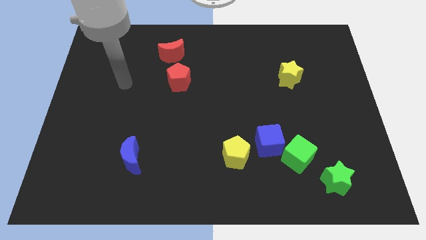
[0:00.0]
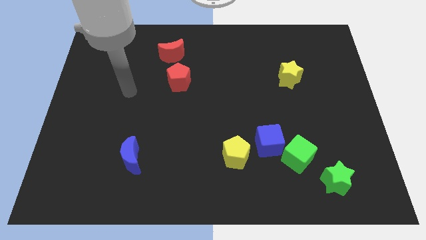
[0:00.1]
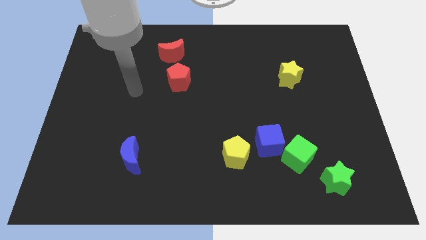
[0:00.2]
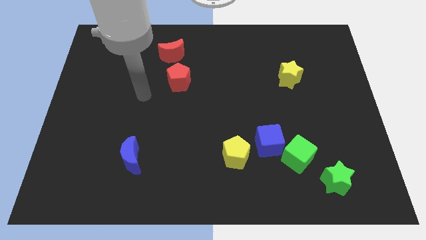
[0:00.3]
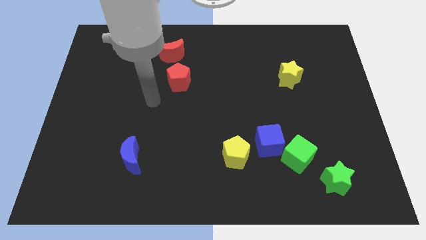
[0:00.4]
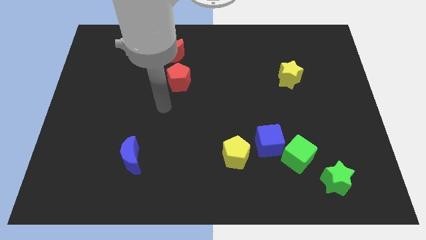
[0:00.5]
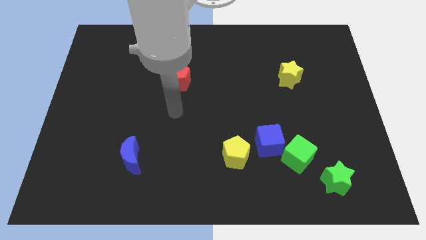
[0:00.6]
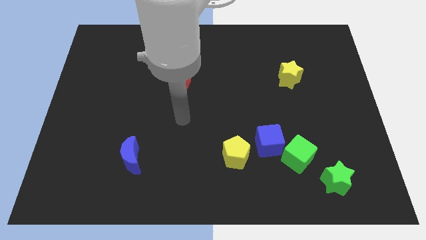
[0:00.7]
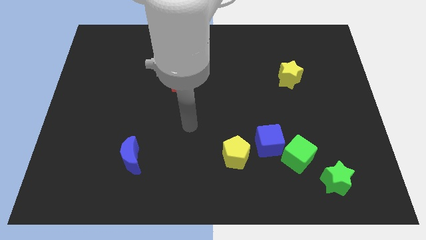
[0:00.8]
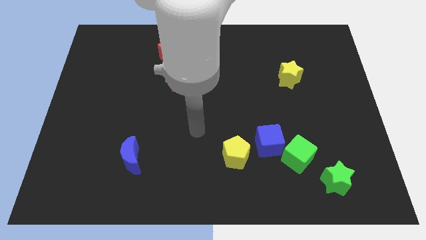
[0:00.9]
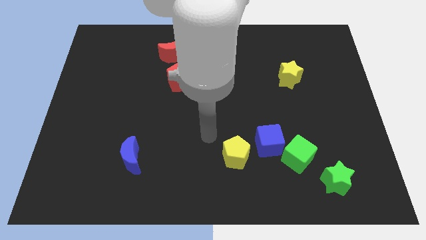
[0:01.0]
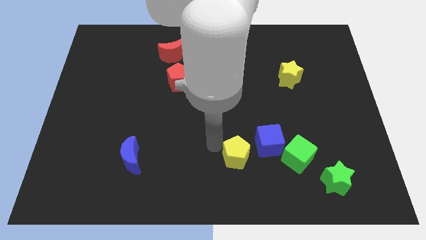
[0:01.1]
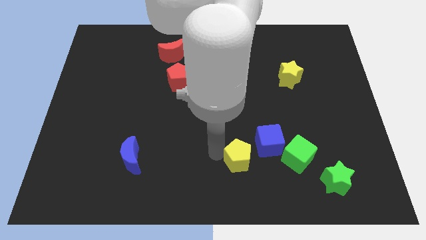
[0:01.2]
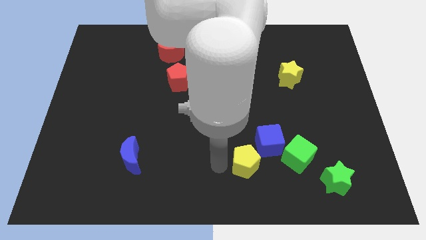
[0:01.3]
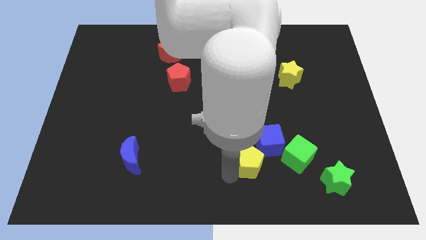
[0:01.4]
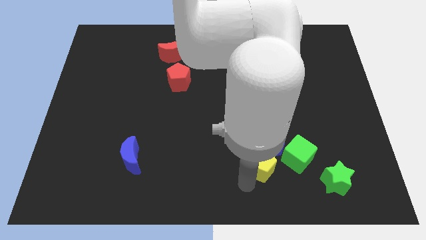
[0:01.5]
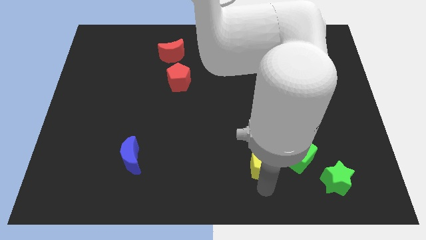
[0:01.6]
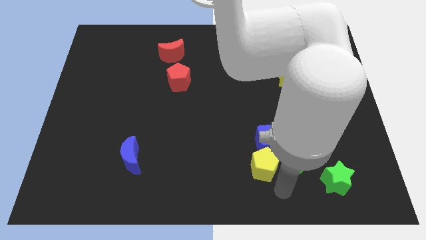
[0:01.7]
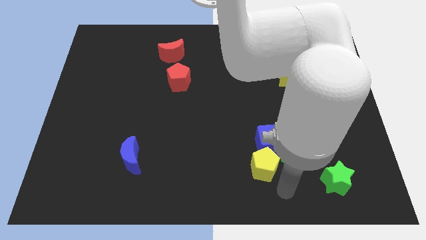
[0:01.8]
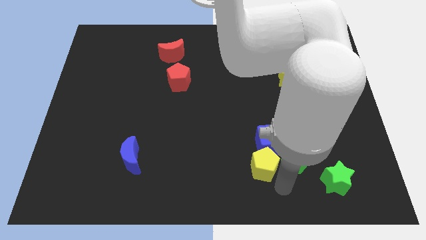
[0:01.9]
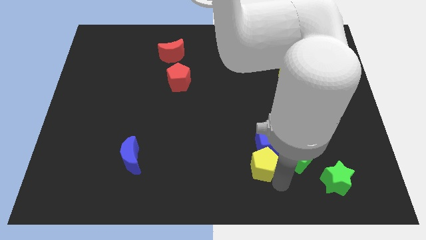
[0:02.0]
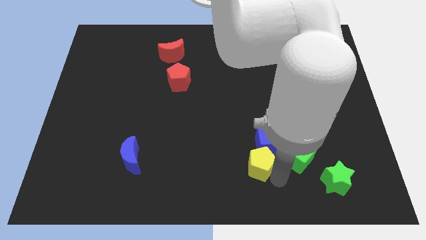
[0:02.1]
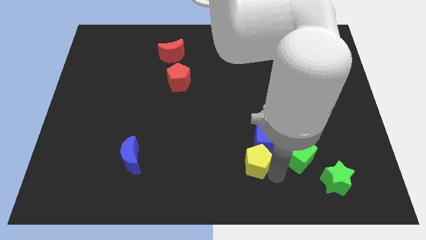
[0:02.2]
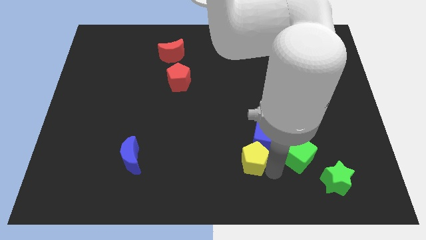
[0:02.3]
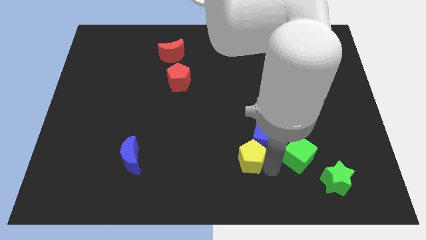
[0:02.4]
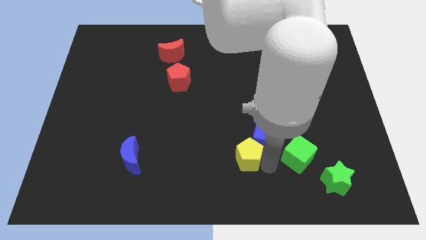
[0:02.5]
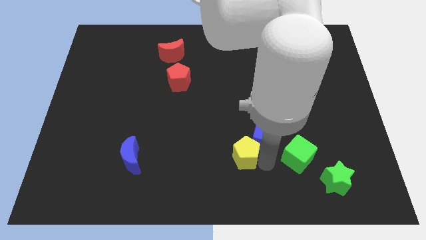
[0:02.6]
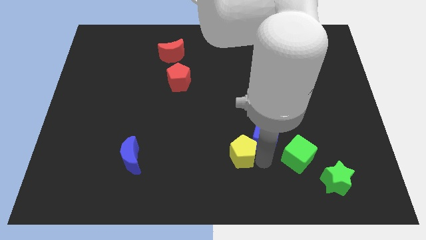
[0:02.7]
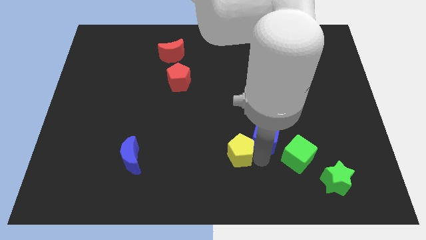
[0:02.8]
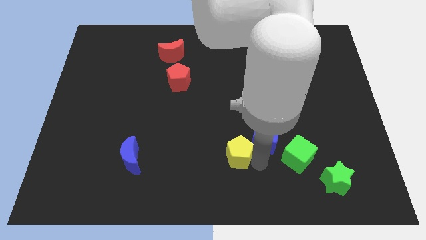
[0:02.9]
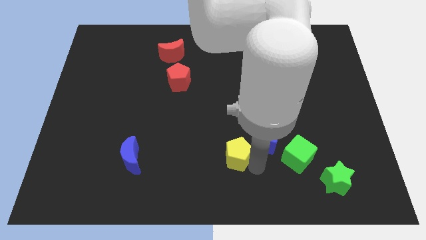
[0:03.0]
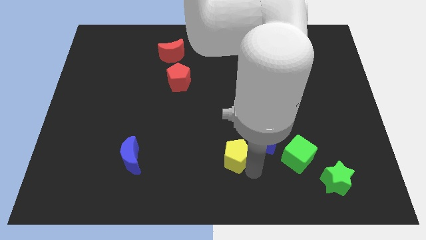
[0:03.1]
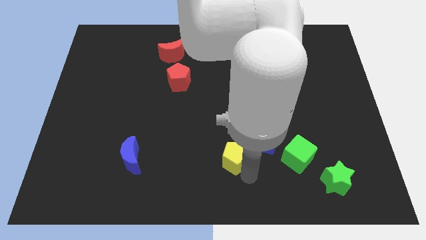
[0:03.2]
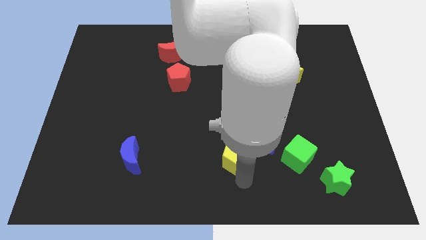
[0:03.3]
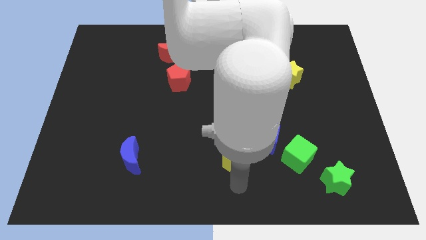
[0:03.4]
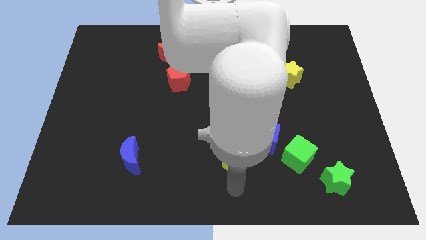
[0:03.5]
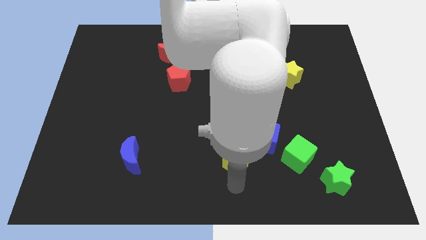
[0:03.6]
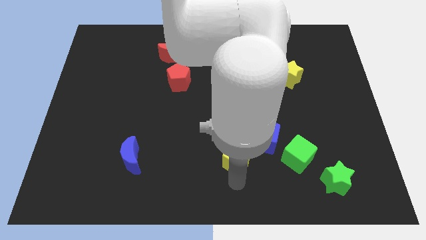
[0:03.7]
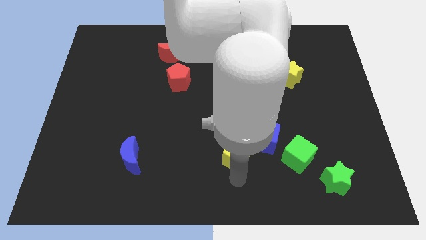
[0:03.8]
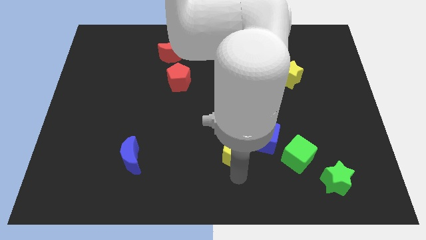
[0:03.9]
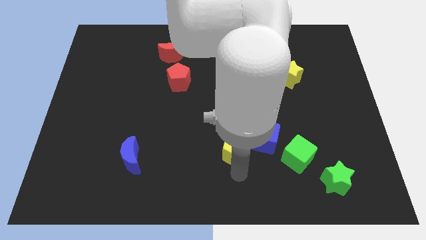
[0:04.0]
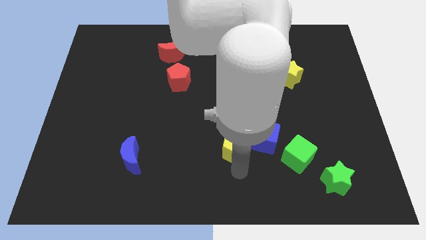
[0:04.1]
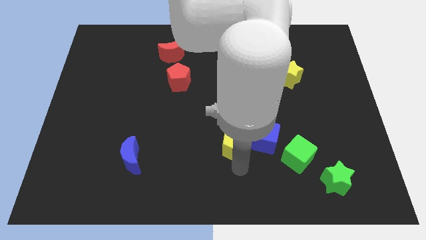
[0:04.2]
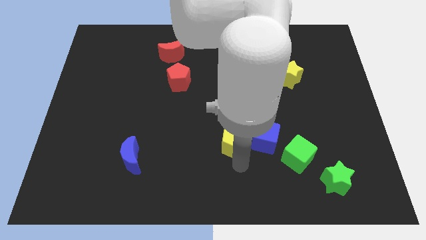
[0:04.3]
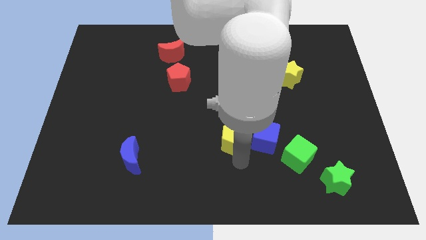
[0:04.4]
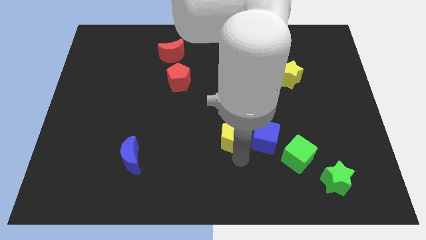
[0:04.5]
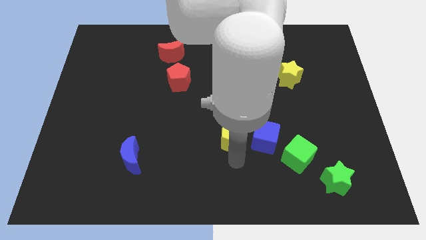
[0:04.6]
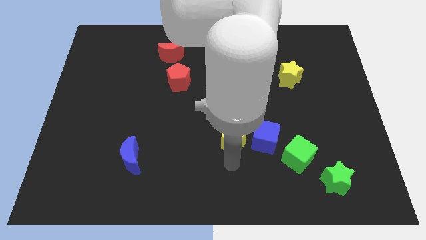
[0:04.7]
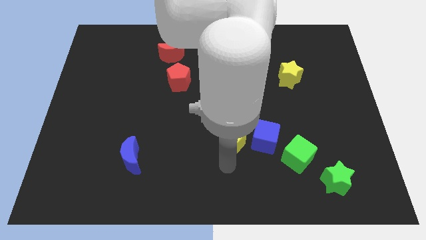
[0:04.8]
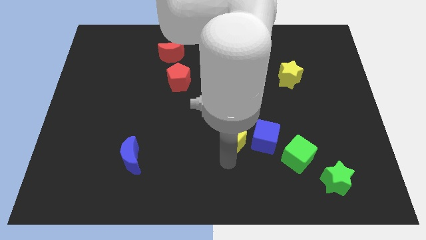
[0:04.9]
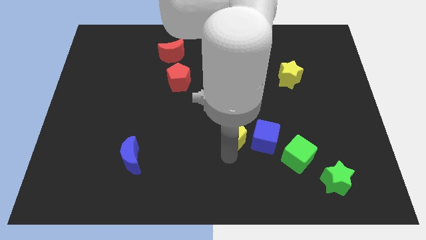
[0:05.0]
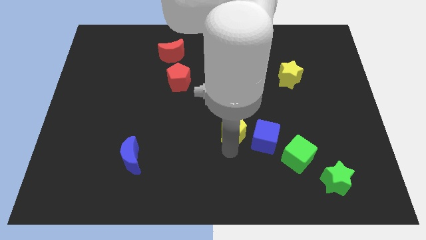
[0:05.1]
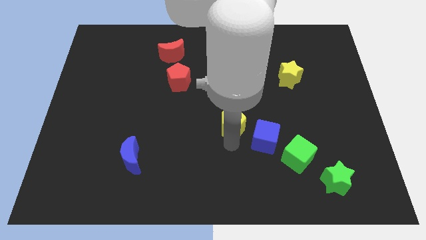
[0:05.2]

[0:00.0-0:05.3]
slightly move the yellow pentagon up

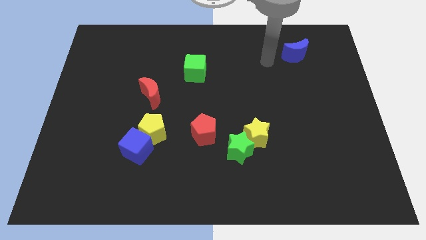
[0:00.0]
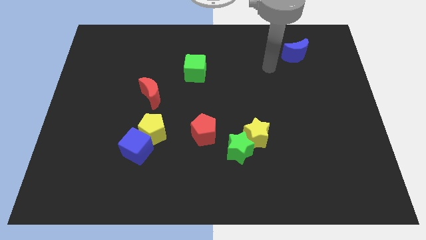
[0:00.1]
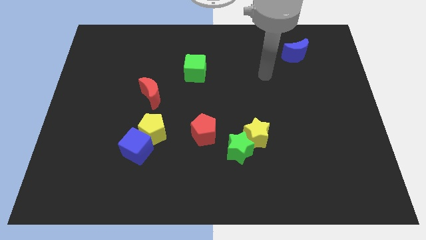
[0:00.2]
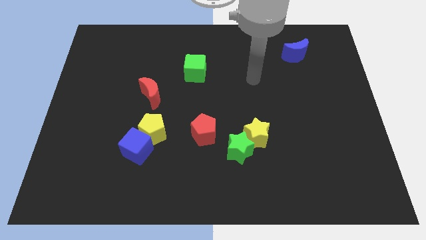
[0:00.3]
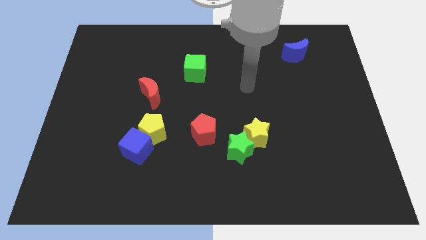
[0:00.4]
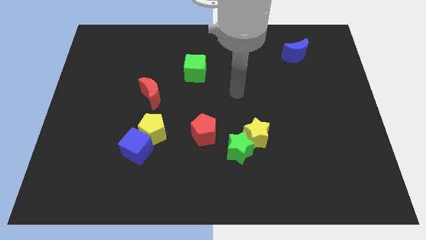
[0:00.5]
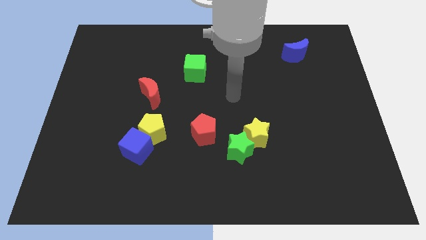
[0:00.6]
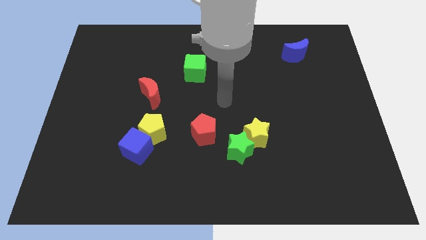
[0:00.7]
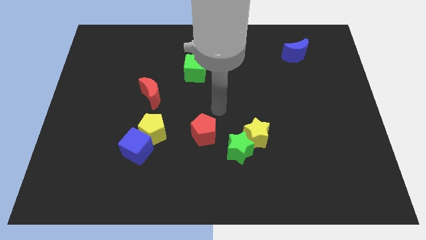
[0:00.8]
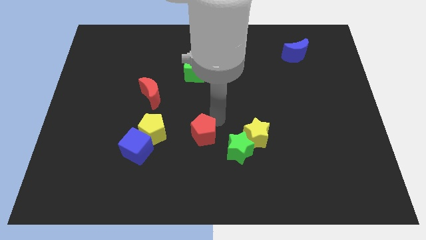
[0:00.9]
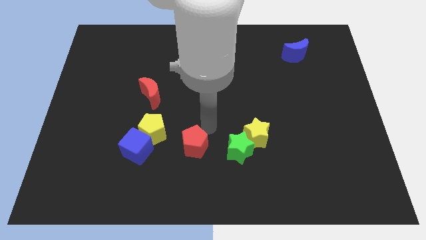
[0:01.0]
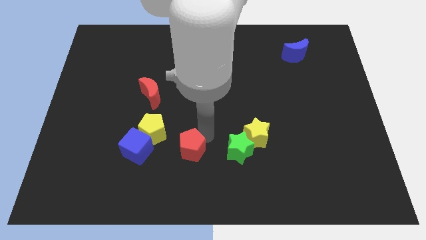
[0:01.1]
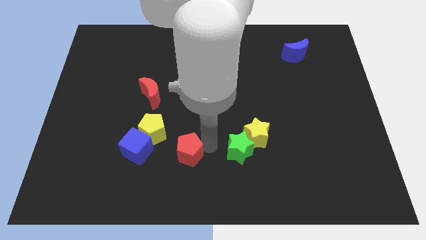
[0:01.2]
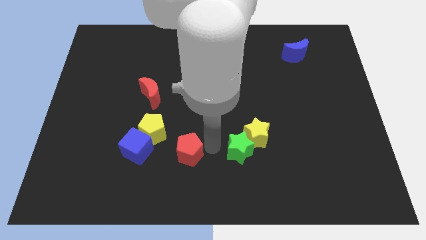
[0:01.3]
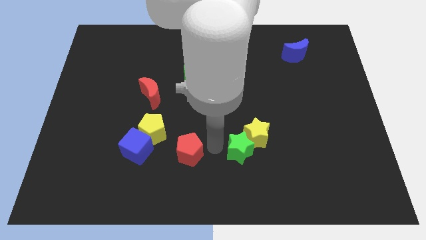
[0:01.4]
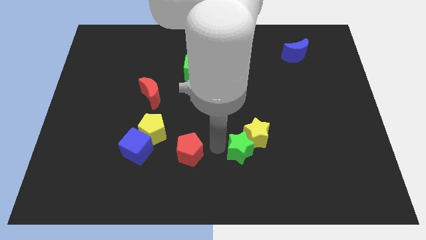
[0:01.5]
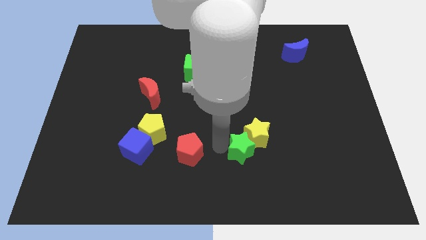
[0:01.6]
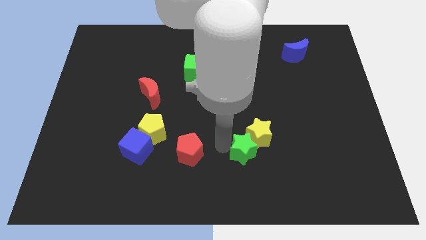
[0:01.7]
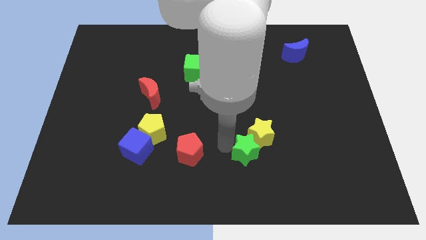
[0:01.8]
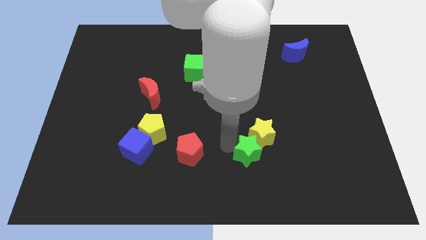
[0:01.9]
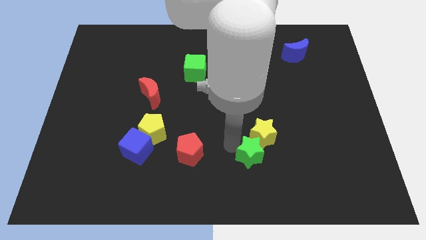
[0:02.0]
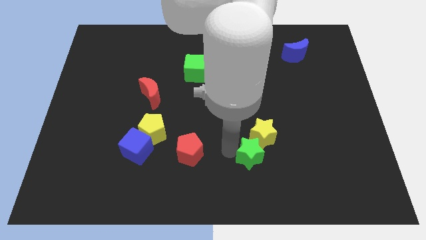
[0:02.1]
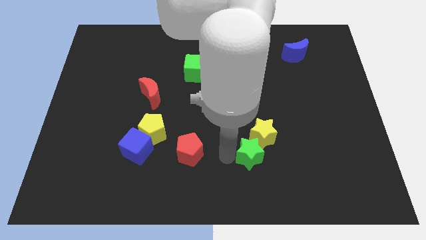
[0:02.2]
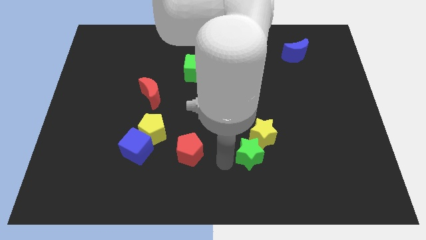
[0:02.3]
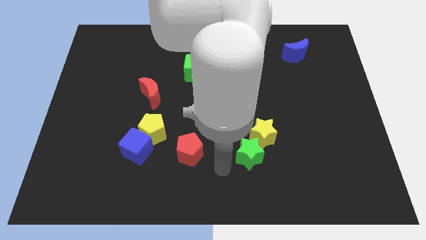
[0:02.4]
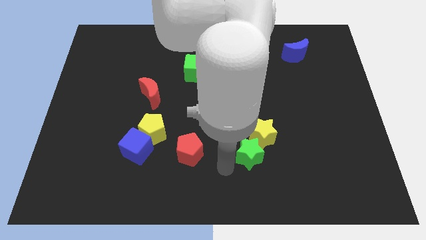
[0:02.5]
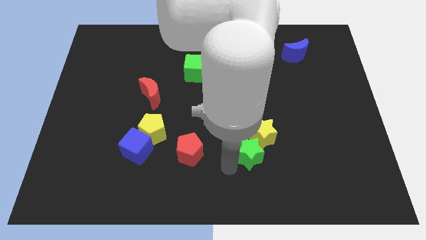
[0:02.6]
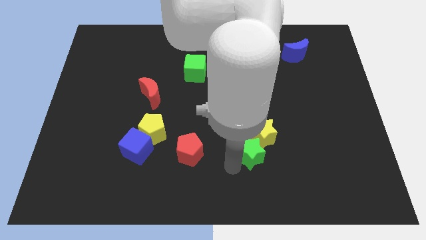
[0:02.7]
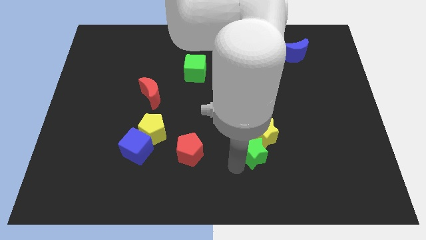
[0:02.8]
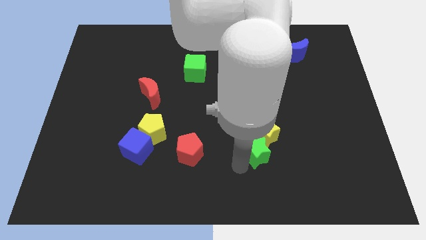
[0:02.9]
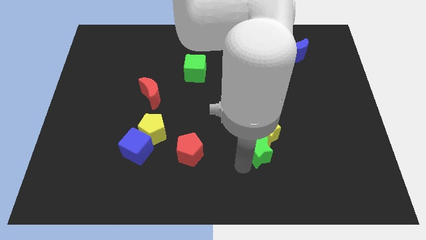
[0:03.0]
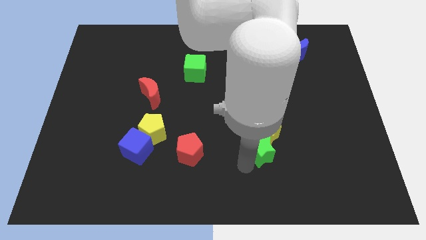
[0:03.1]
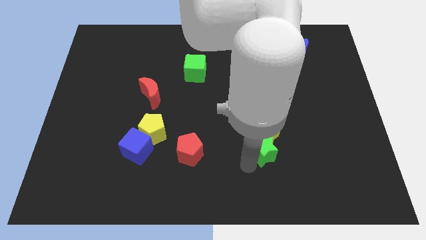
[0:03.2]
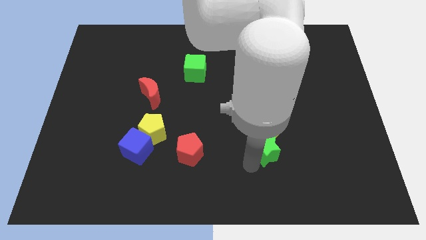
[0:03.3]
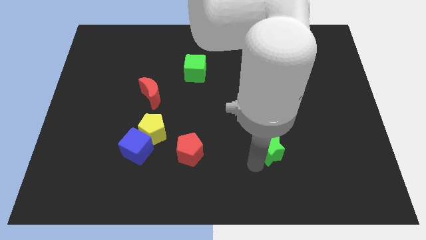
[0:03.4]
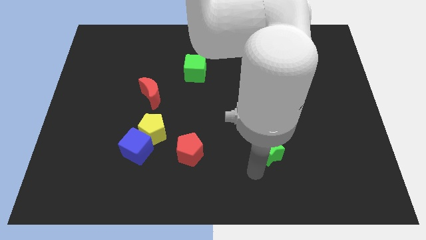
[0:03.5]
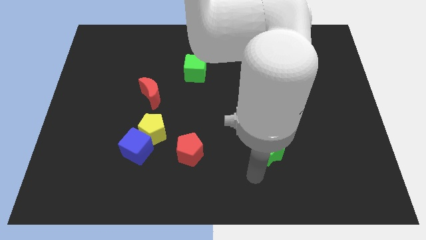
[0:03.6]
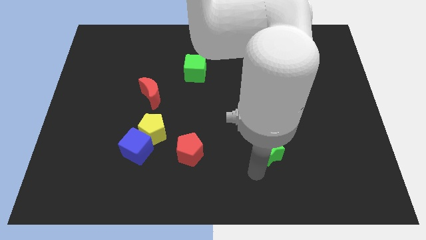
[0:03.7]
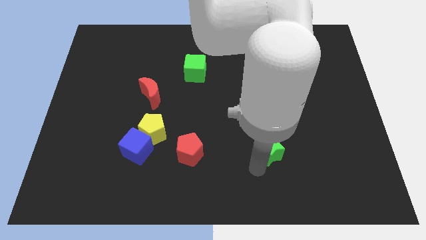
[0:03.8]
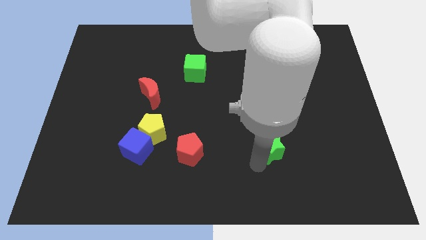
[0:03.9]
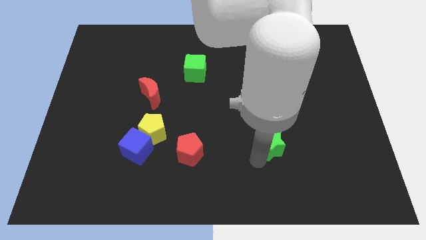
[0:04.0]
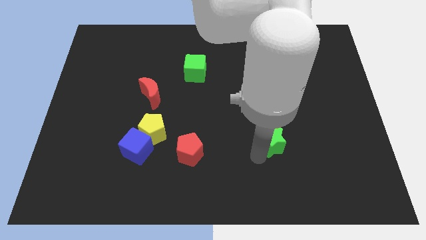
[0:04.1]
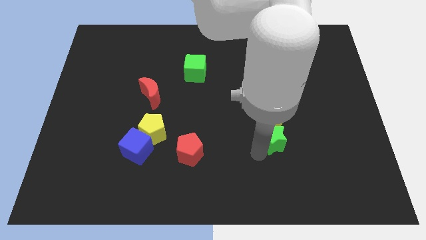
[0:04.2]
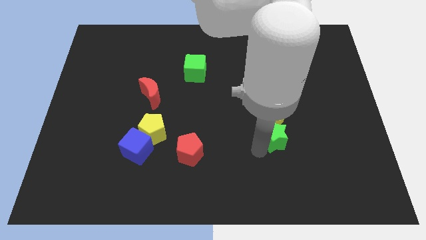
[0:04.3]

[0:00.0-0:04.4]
move the green star a bit up and then right
